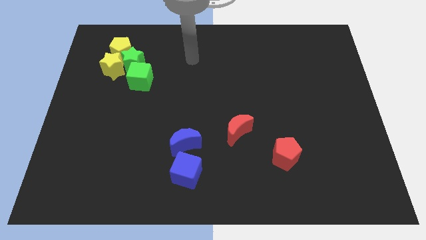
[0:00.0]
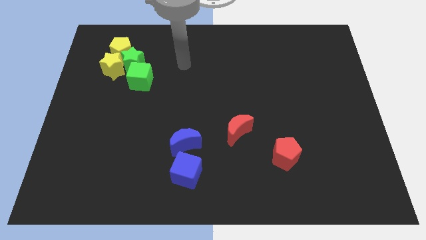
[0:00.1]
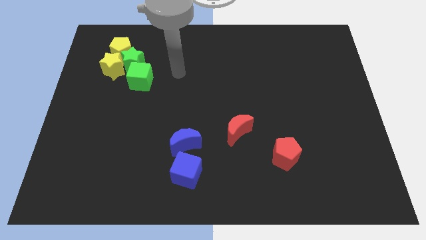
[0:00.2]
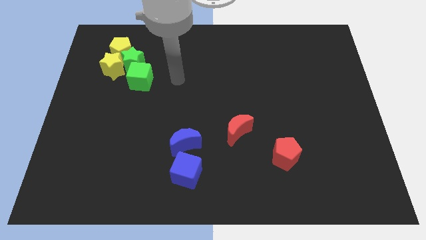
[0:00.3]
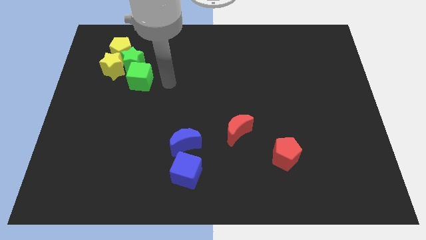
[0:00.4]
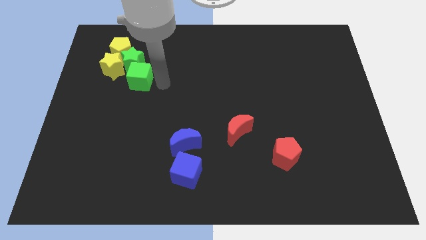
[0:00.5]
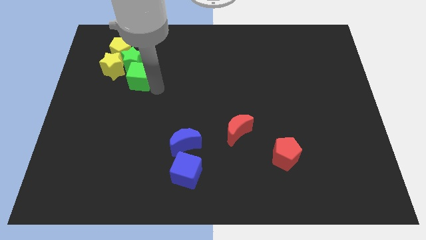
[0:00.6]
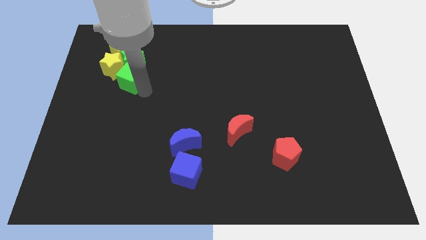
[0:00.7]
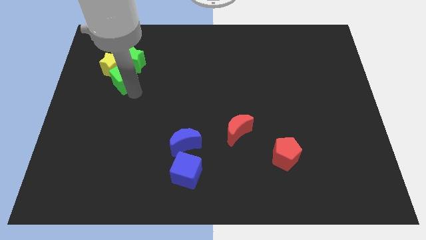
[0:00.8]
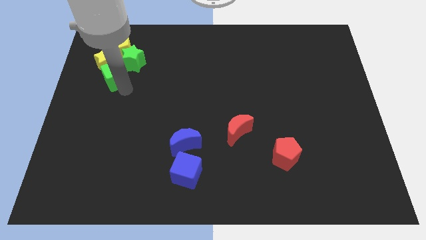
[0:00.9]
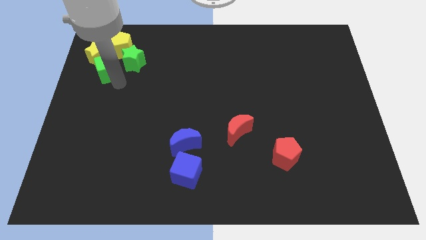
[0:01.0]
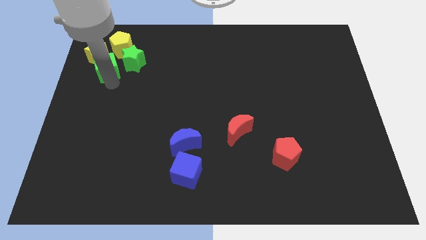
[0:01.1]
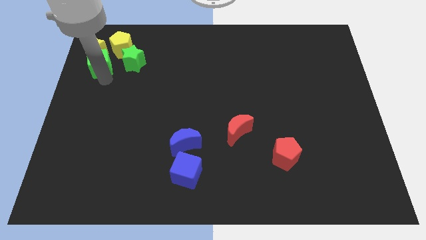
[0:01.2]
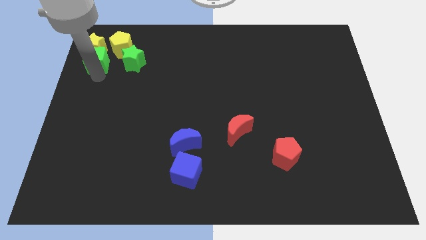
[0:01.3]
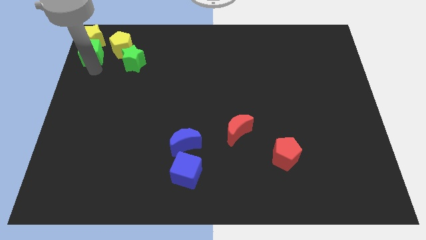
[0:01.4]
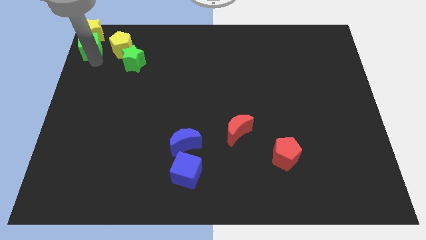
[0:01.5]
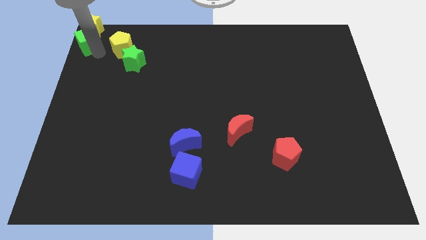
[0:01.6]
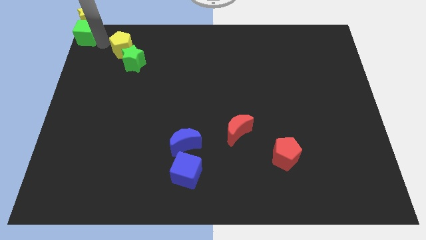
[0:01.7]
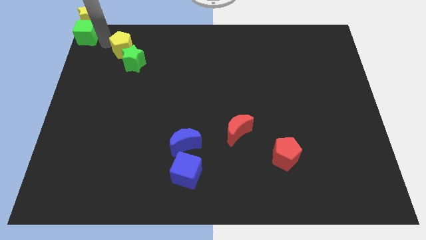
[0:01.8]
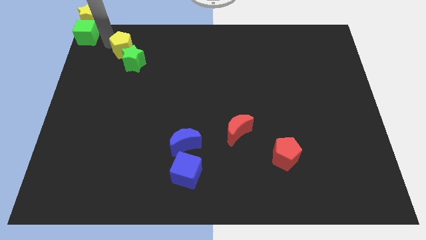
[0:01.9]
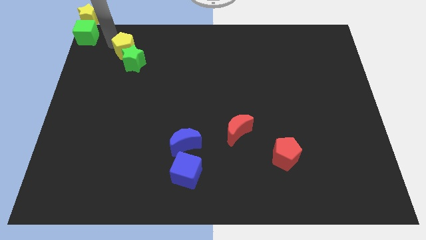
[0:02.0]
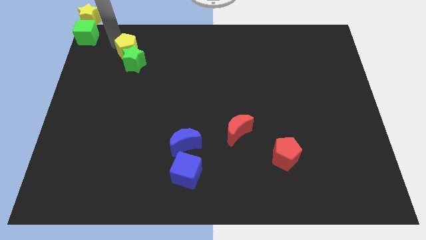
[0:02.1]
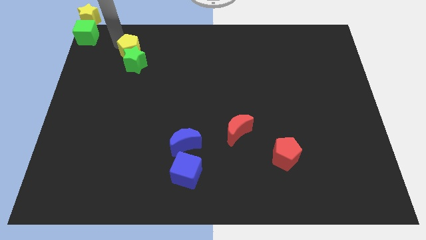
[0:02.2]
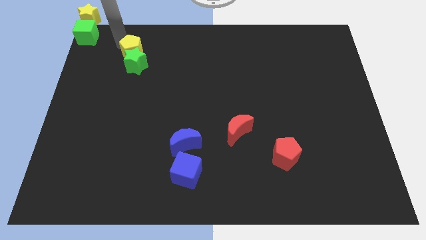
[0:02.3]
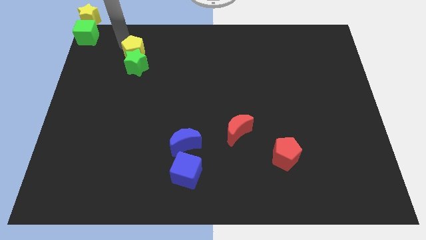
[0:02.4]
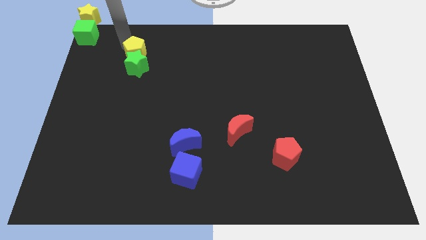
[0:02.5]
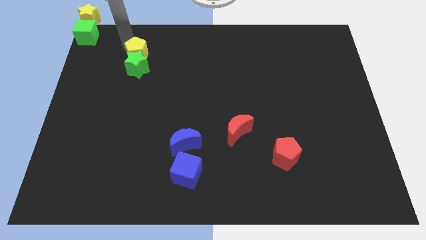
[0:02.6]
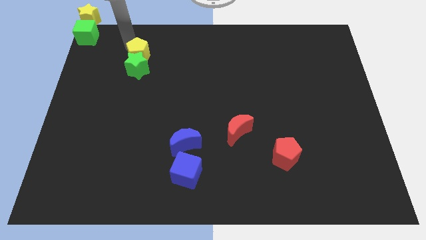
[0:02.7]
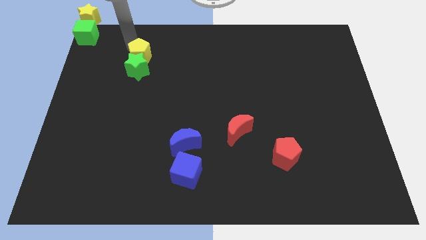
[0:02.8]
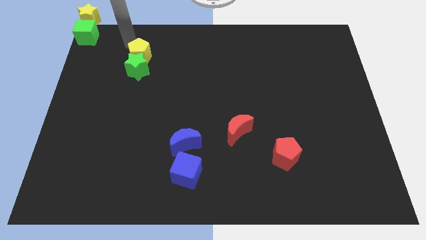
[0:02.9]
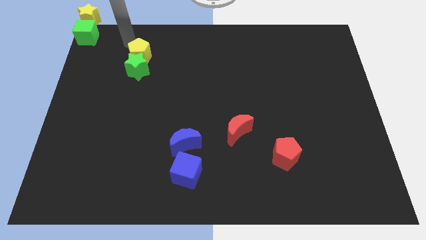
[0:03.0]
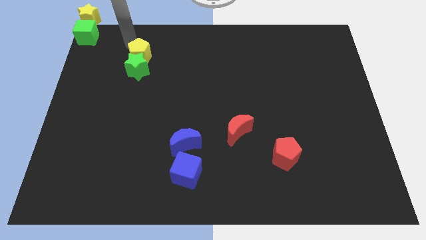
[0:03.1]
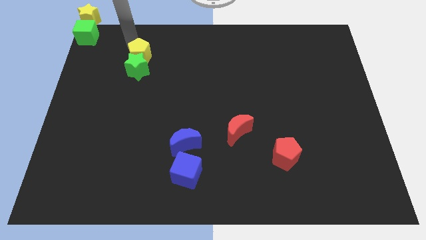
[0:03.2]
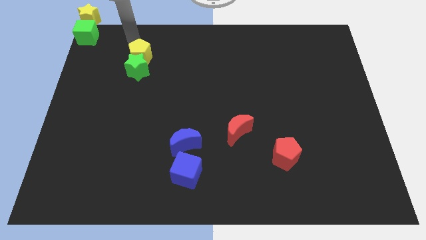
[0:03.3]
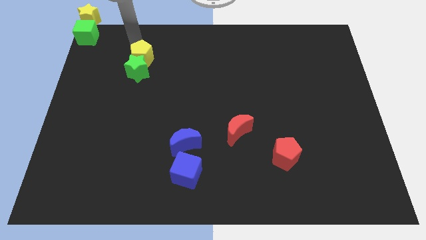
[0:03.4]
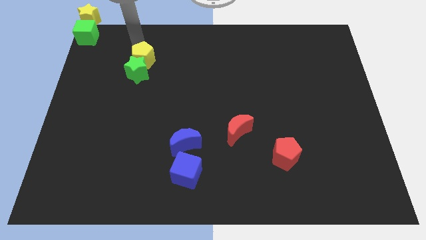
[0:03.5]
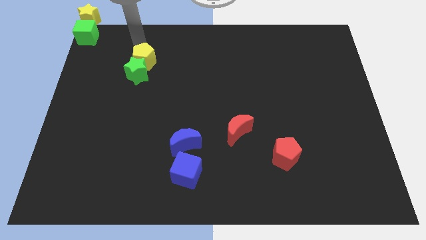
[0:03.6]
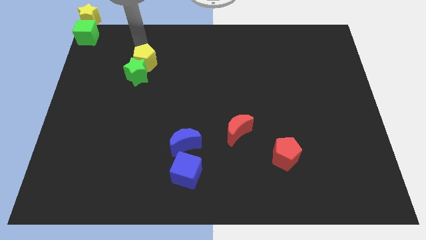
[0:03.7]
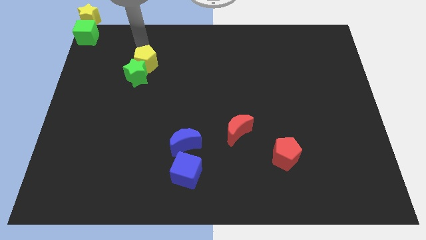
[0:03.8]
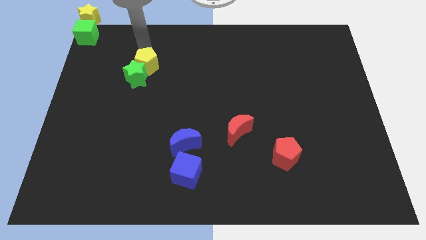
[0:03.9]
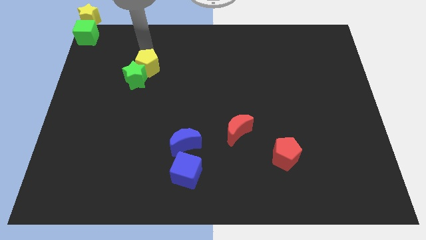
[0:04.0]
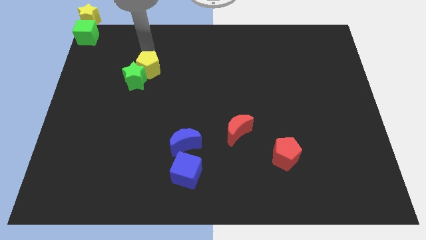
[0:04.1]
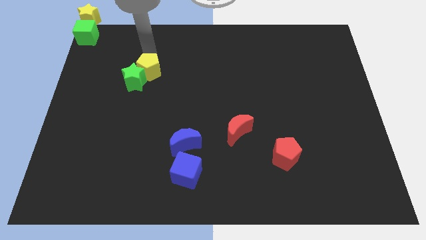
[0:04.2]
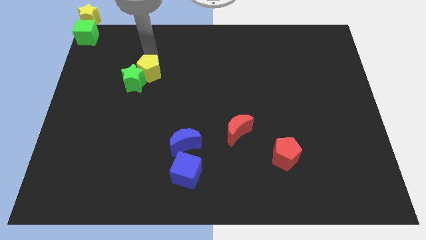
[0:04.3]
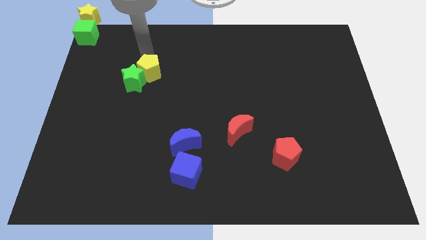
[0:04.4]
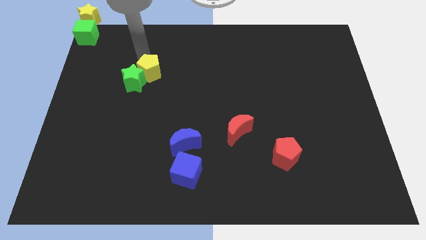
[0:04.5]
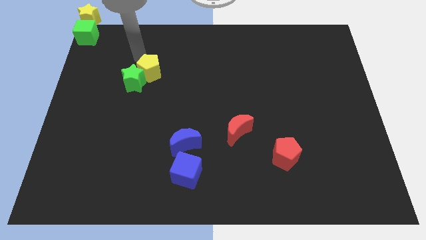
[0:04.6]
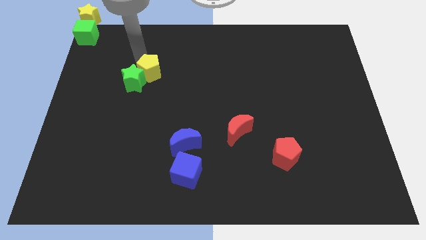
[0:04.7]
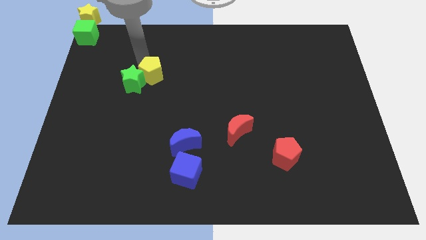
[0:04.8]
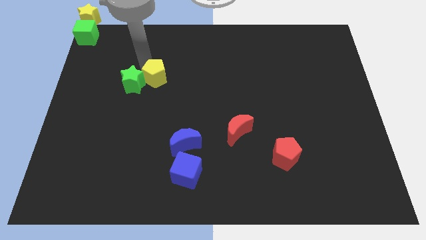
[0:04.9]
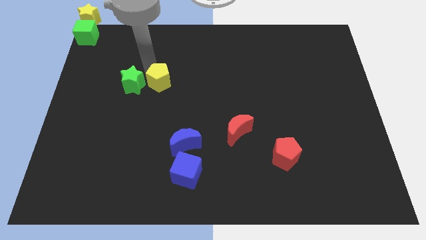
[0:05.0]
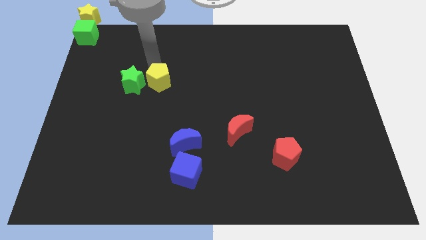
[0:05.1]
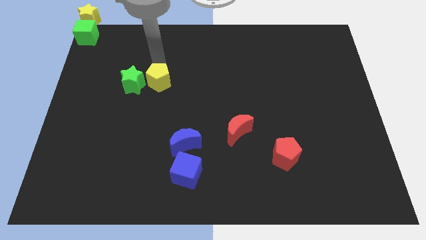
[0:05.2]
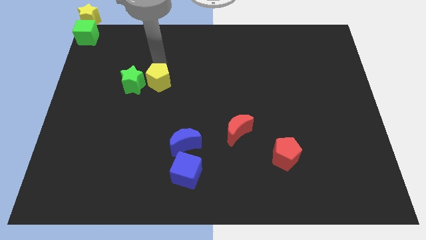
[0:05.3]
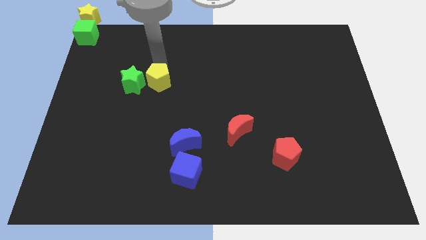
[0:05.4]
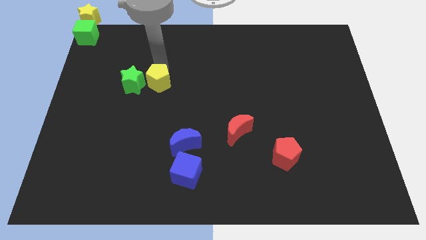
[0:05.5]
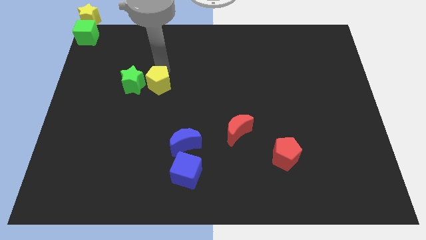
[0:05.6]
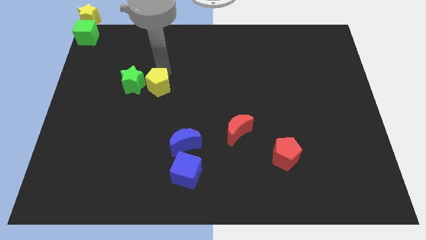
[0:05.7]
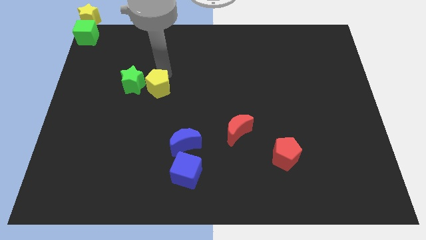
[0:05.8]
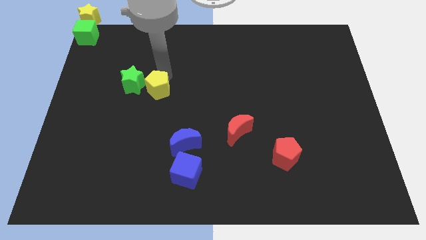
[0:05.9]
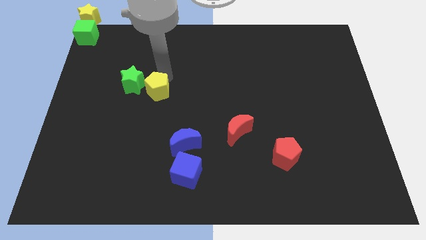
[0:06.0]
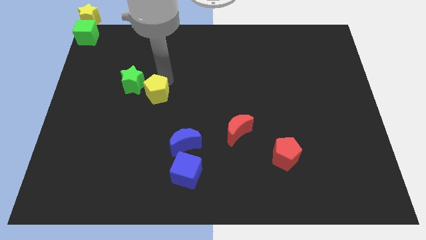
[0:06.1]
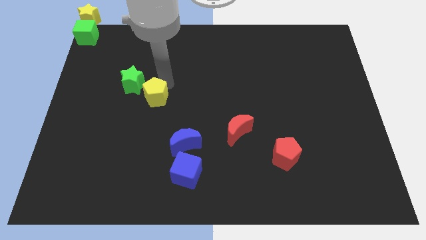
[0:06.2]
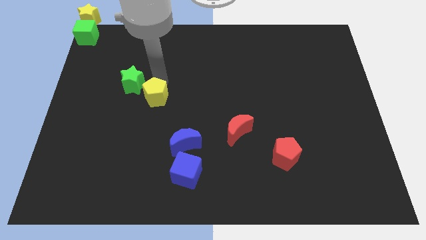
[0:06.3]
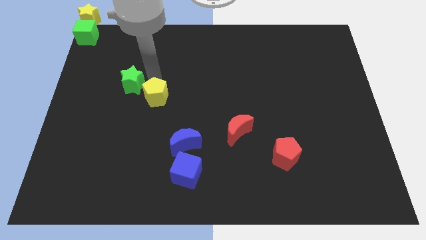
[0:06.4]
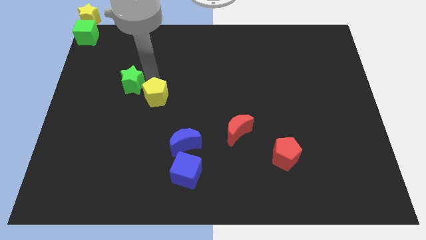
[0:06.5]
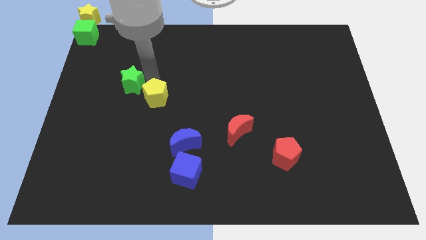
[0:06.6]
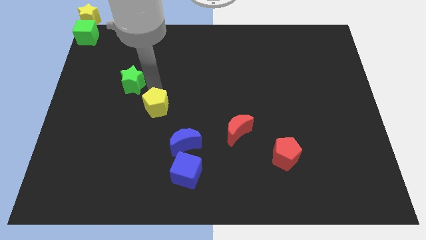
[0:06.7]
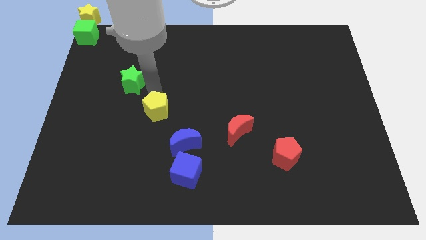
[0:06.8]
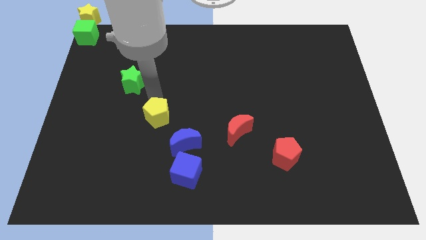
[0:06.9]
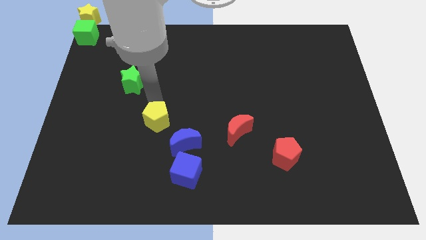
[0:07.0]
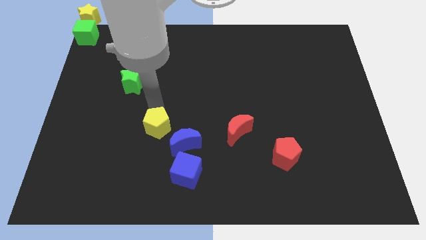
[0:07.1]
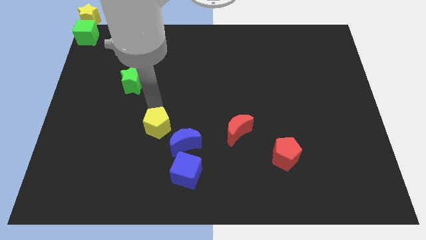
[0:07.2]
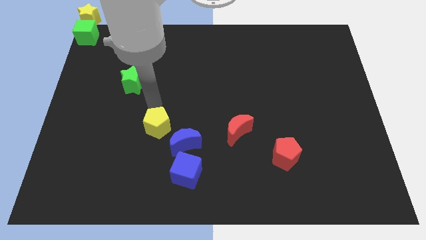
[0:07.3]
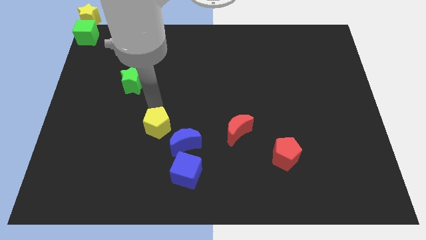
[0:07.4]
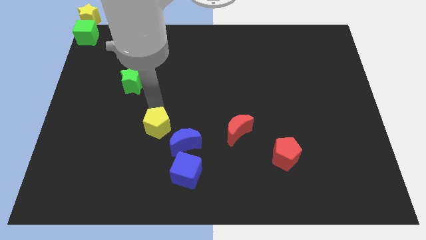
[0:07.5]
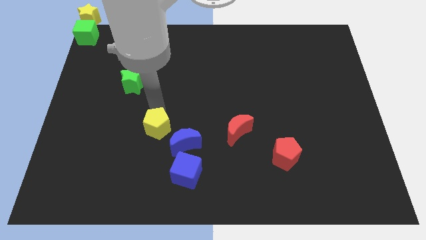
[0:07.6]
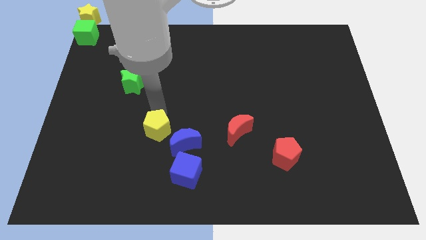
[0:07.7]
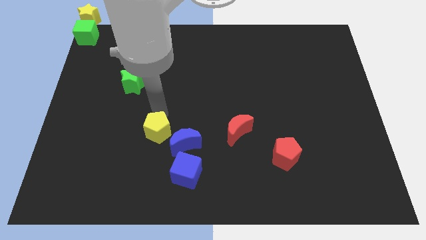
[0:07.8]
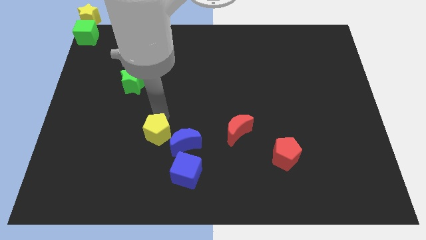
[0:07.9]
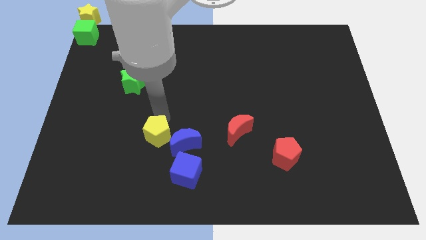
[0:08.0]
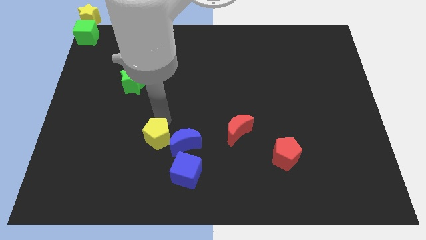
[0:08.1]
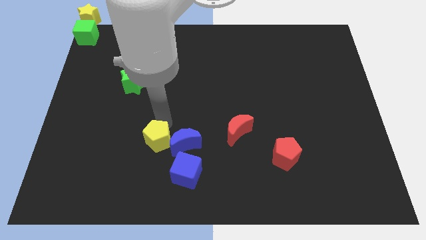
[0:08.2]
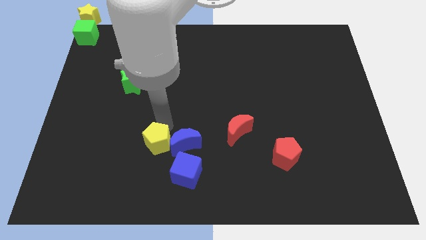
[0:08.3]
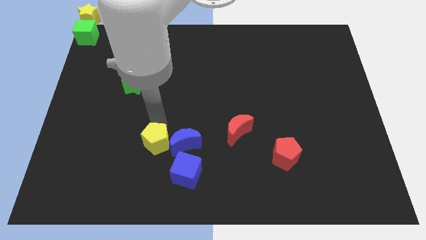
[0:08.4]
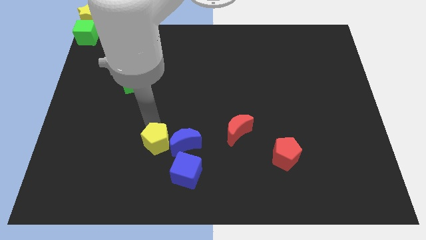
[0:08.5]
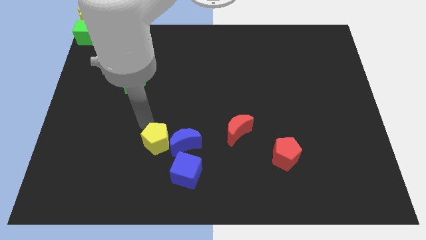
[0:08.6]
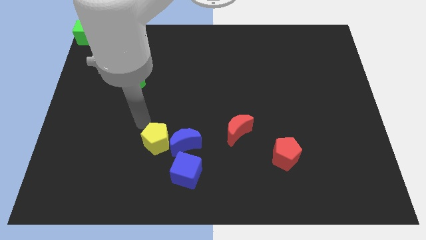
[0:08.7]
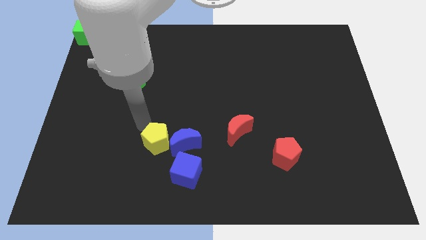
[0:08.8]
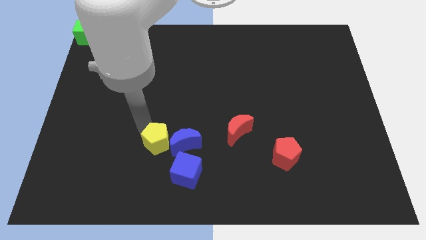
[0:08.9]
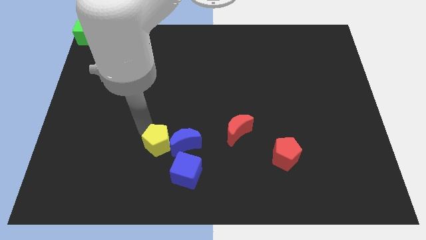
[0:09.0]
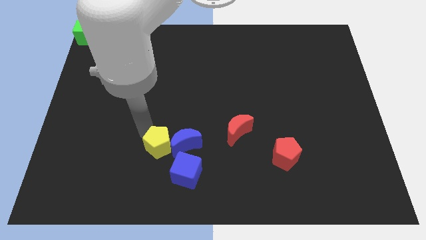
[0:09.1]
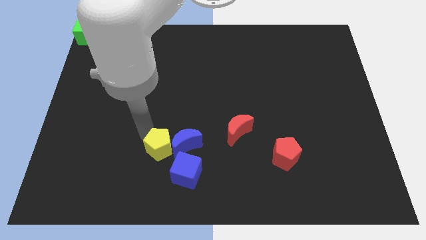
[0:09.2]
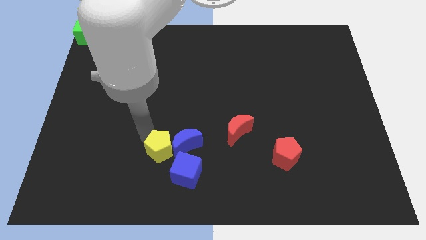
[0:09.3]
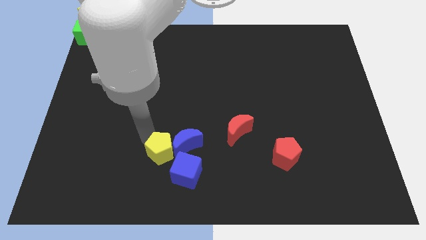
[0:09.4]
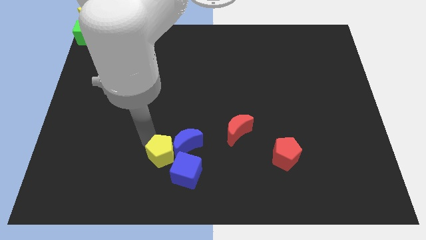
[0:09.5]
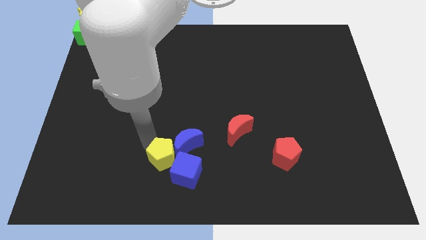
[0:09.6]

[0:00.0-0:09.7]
move the yellow pentagon next to the blue cube
